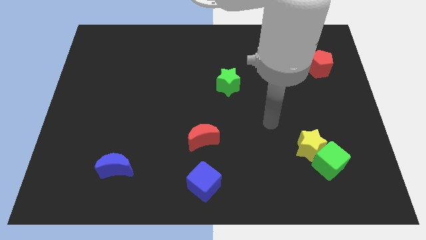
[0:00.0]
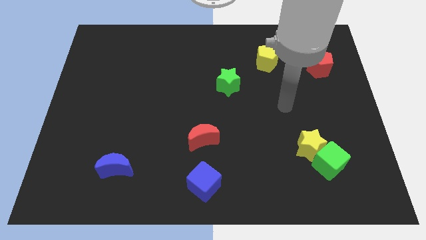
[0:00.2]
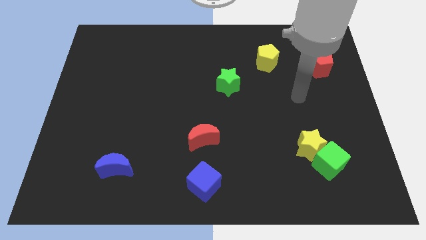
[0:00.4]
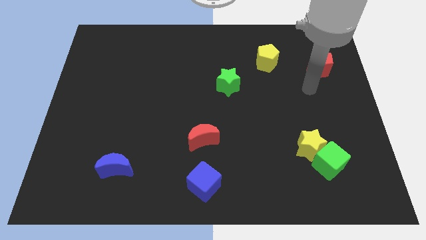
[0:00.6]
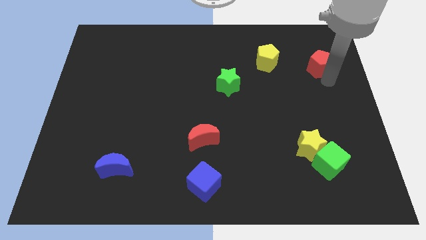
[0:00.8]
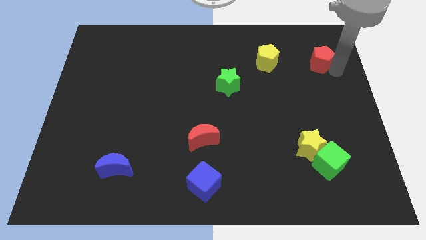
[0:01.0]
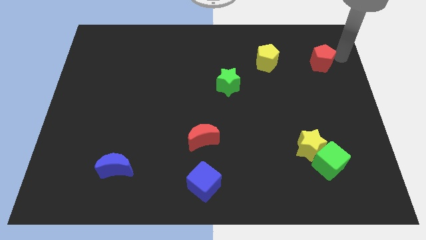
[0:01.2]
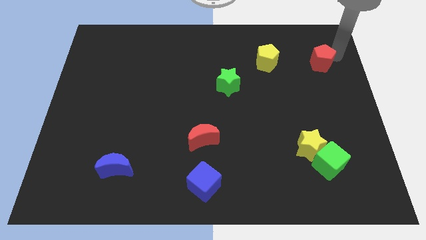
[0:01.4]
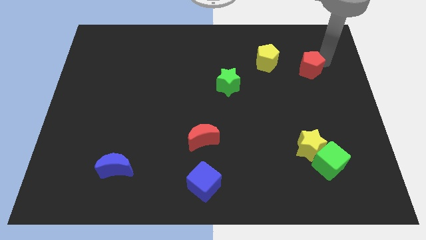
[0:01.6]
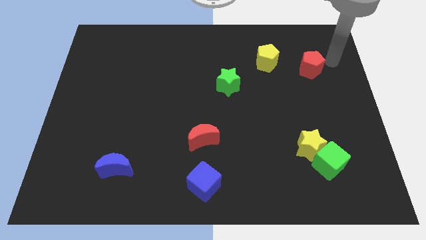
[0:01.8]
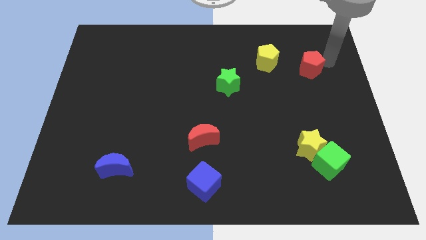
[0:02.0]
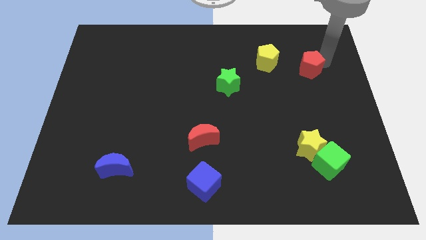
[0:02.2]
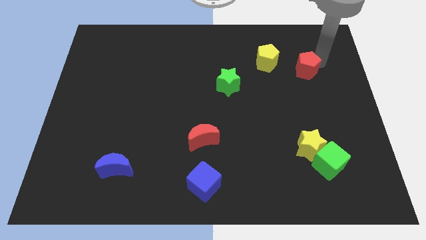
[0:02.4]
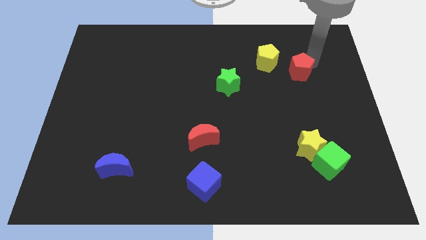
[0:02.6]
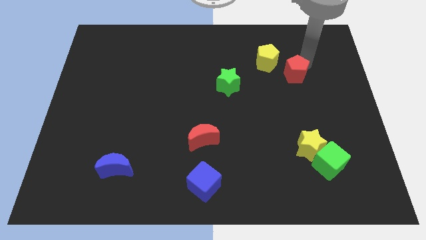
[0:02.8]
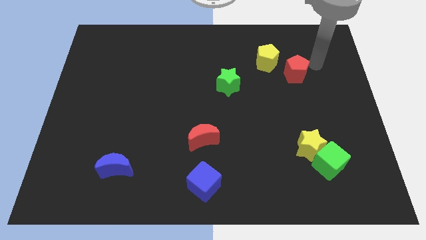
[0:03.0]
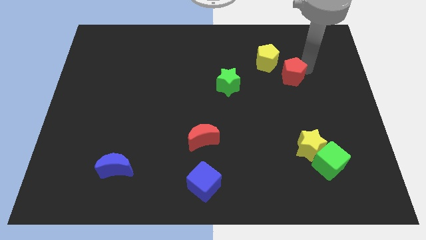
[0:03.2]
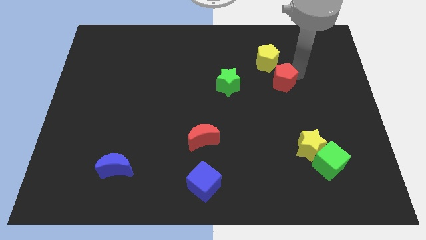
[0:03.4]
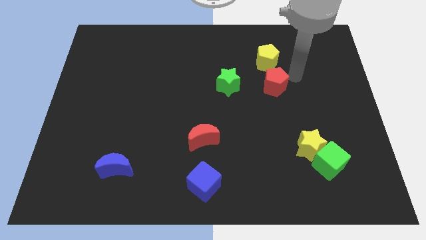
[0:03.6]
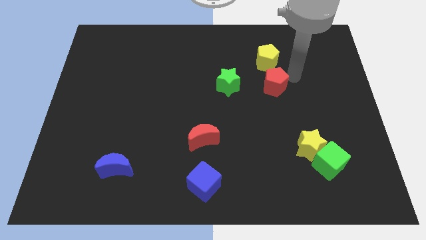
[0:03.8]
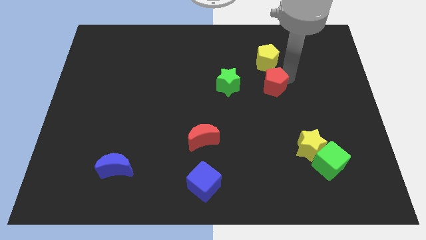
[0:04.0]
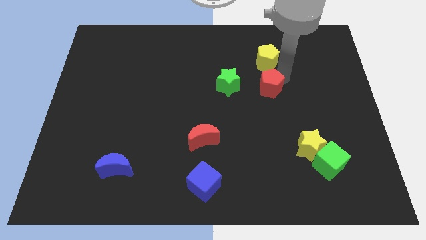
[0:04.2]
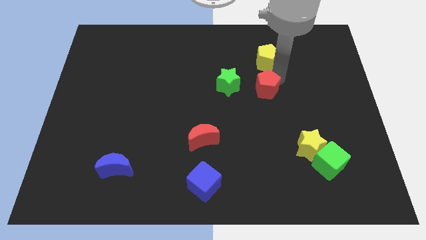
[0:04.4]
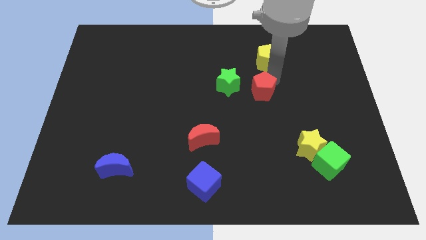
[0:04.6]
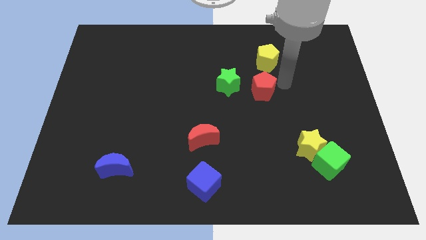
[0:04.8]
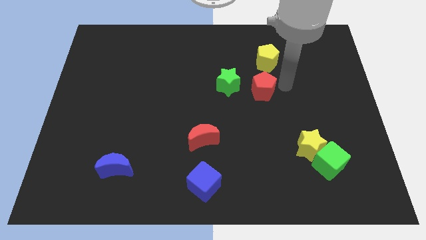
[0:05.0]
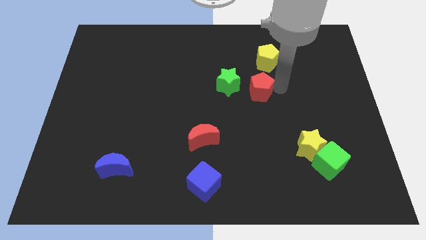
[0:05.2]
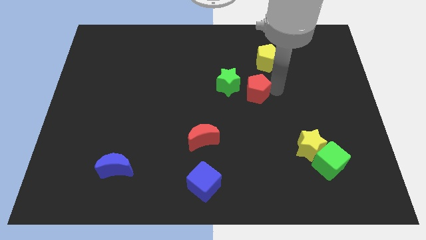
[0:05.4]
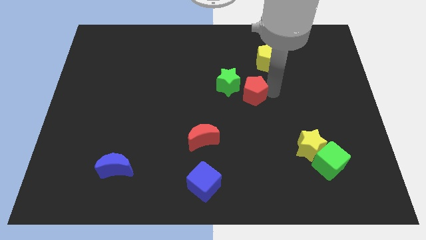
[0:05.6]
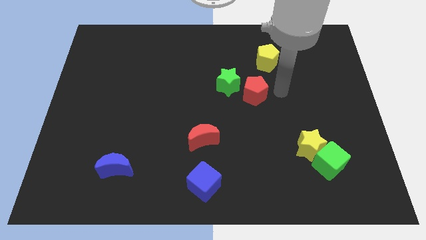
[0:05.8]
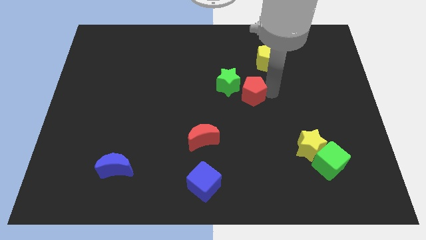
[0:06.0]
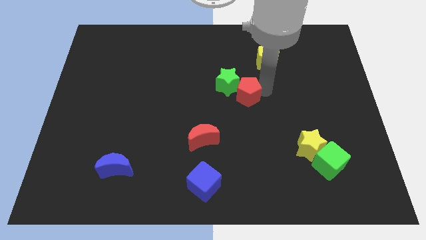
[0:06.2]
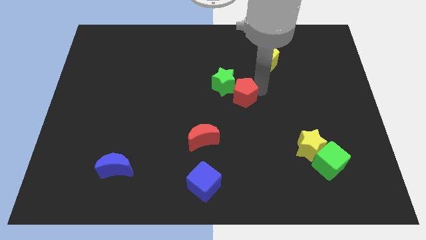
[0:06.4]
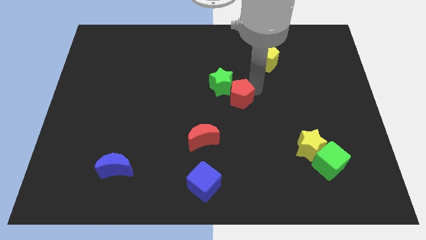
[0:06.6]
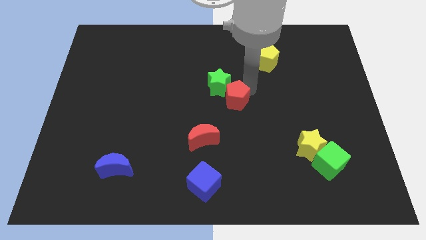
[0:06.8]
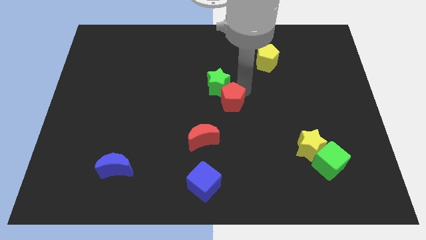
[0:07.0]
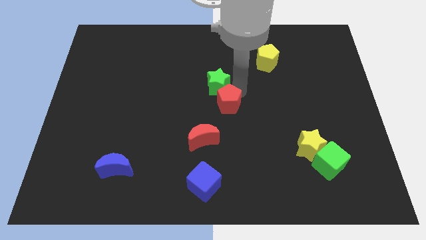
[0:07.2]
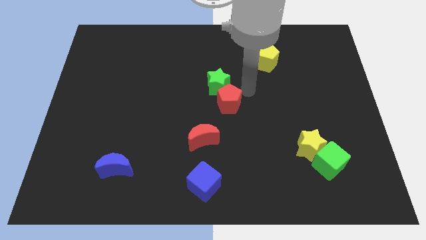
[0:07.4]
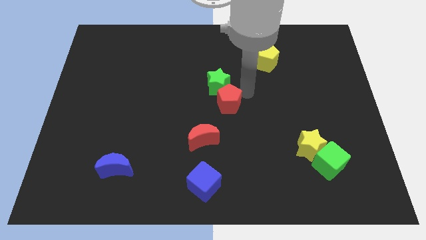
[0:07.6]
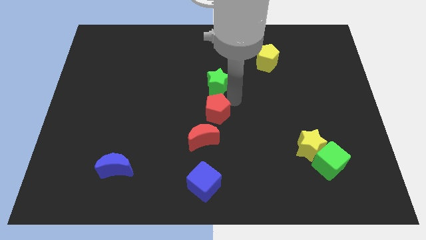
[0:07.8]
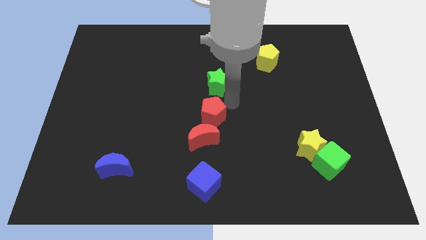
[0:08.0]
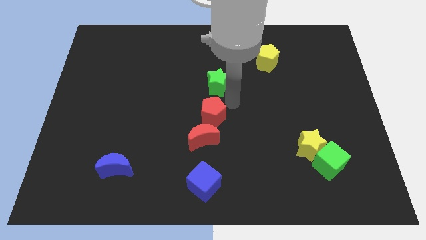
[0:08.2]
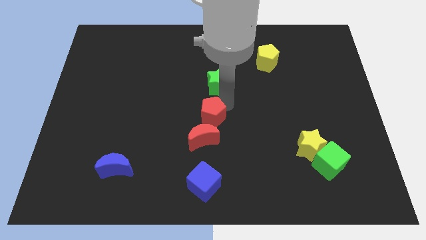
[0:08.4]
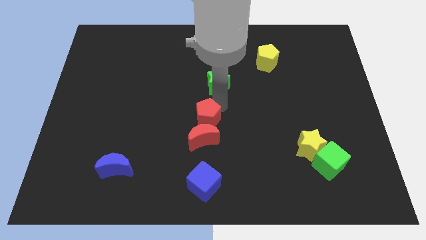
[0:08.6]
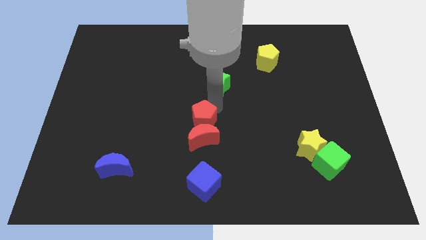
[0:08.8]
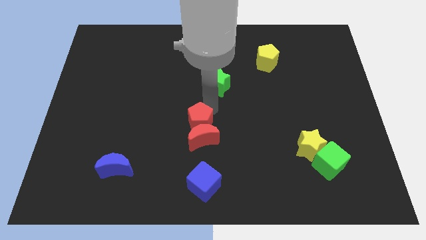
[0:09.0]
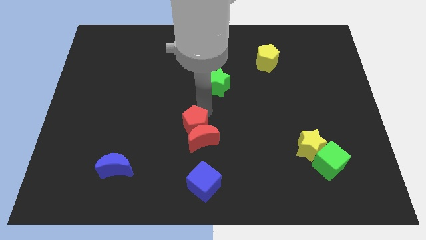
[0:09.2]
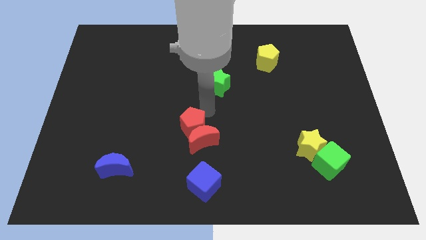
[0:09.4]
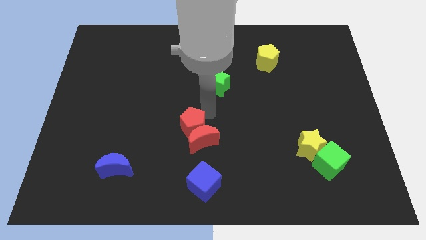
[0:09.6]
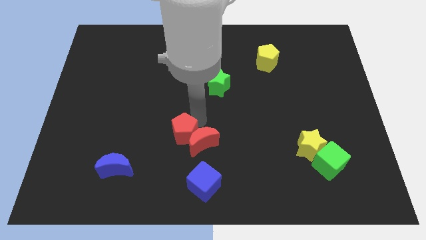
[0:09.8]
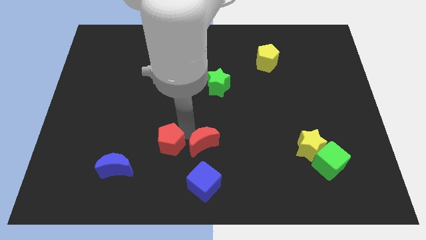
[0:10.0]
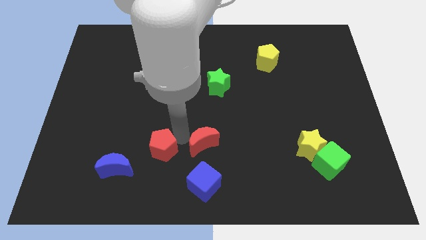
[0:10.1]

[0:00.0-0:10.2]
push the red pentagon to the top right of the blue moon

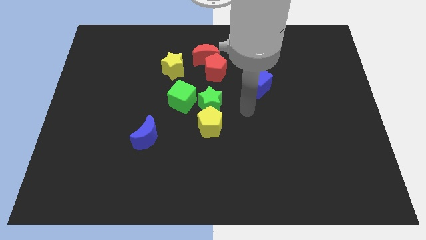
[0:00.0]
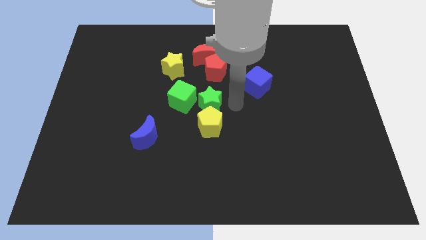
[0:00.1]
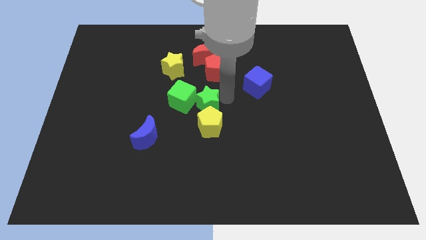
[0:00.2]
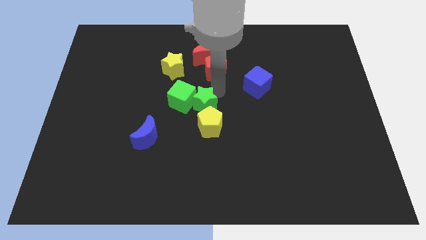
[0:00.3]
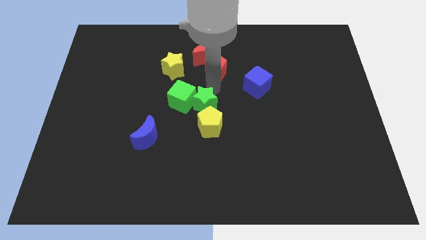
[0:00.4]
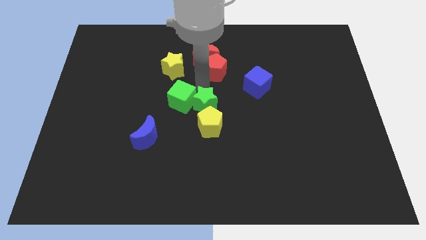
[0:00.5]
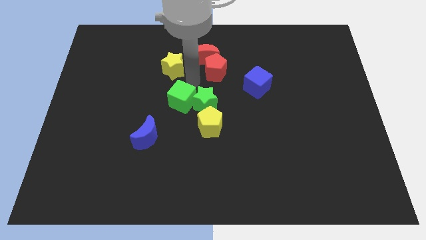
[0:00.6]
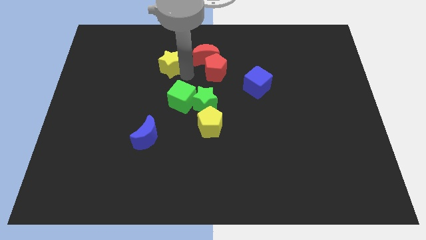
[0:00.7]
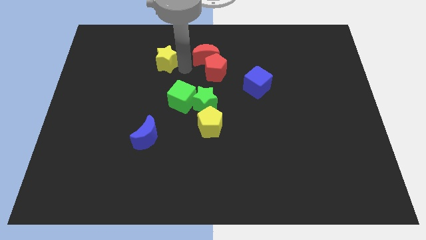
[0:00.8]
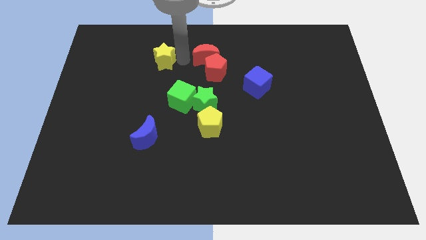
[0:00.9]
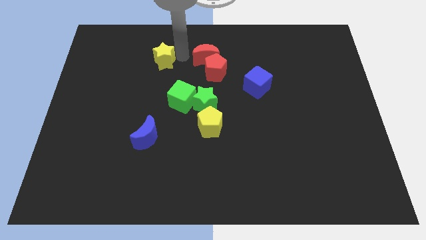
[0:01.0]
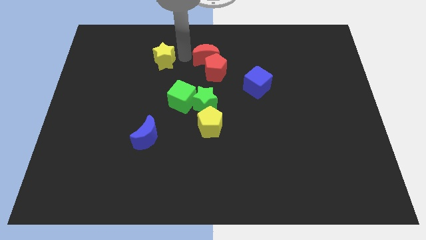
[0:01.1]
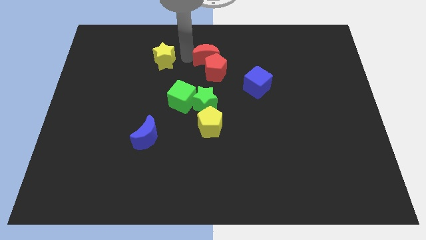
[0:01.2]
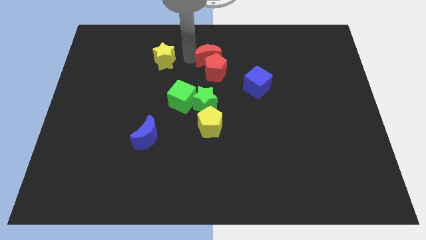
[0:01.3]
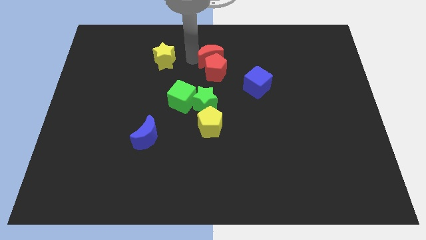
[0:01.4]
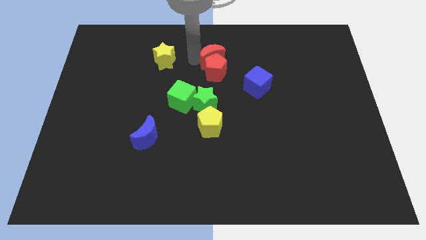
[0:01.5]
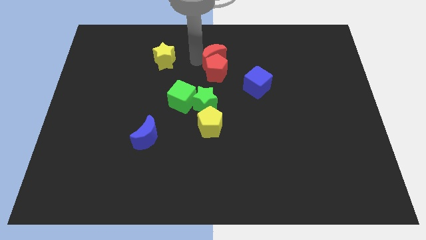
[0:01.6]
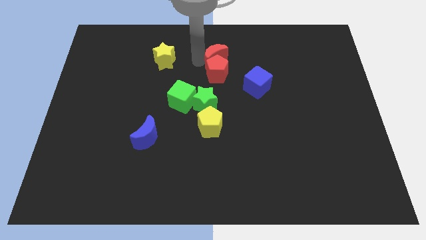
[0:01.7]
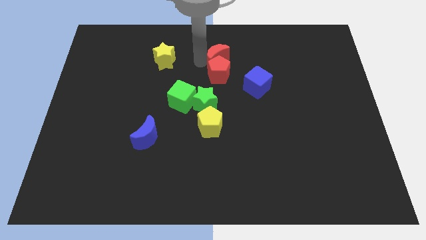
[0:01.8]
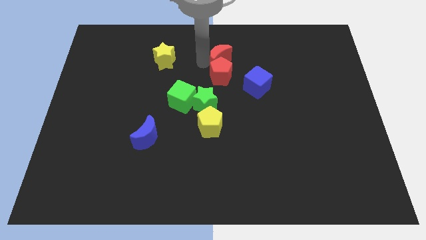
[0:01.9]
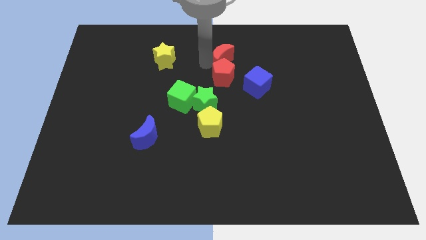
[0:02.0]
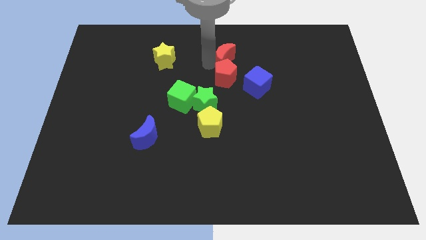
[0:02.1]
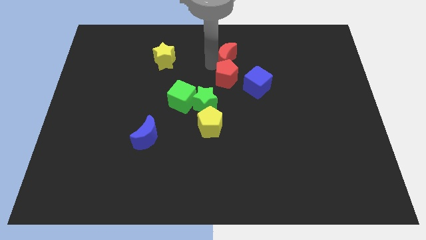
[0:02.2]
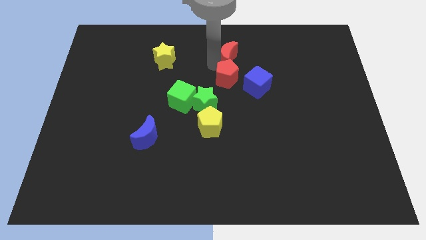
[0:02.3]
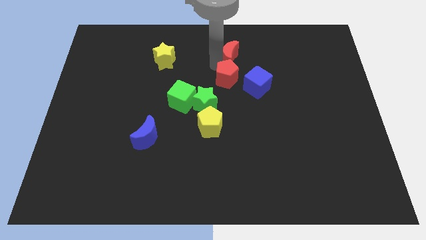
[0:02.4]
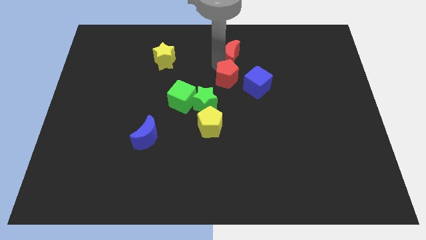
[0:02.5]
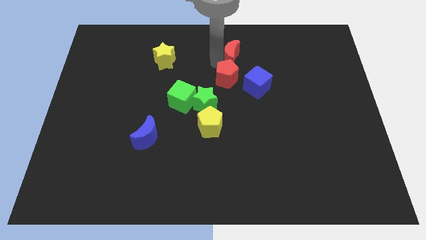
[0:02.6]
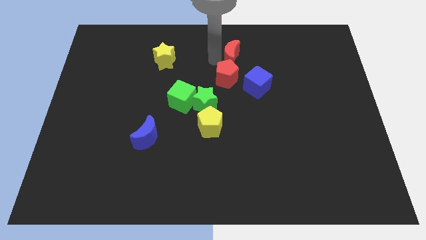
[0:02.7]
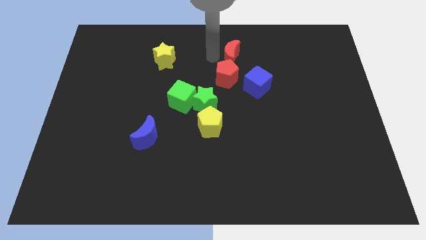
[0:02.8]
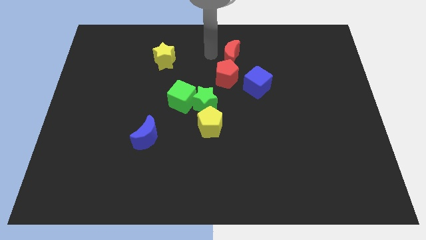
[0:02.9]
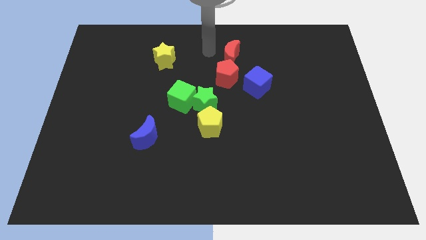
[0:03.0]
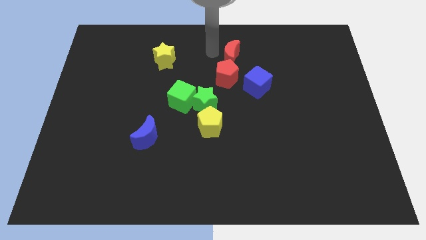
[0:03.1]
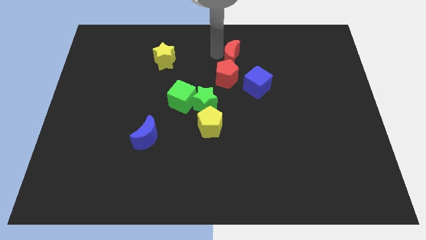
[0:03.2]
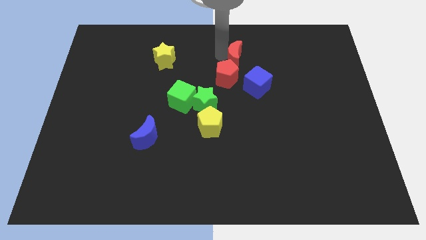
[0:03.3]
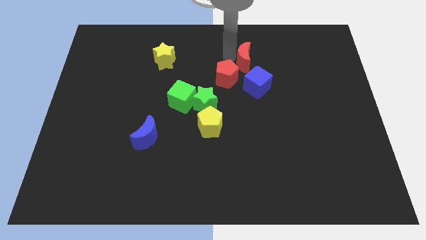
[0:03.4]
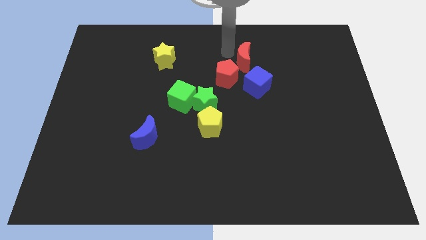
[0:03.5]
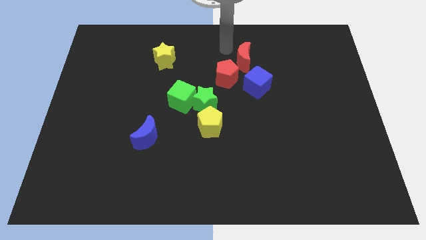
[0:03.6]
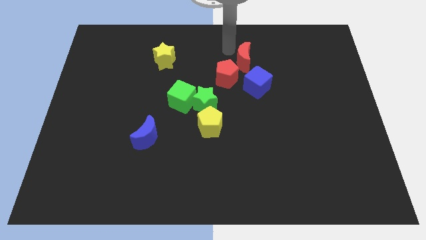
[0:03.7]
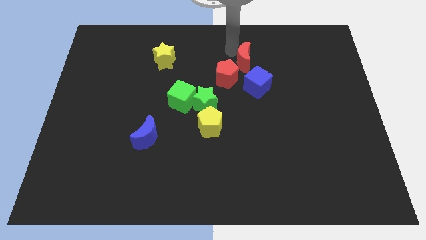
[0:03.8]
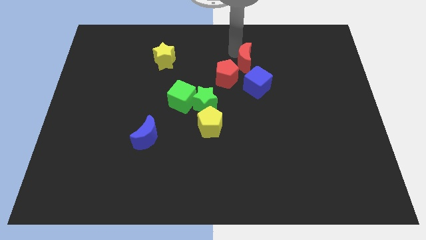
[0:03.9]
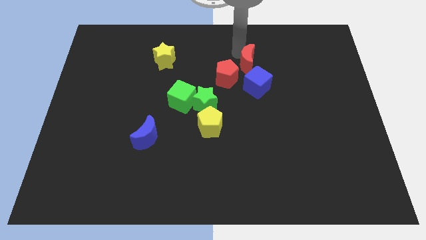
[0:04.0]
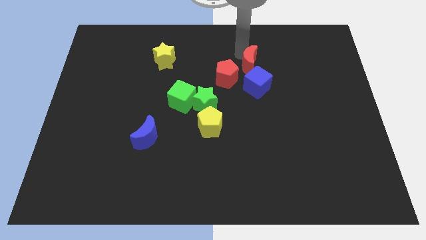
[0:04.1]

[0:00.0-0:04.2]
push the red moon to the right side of the red pentagon
